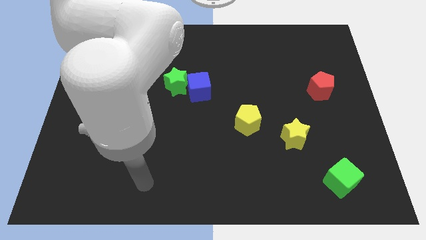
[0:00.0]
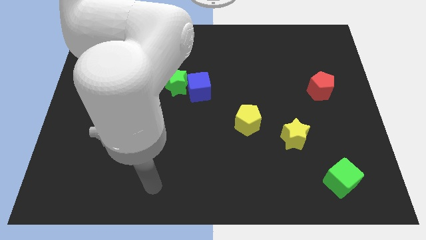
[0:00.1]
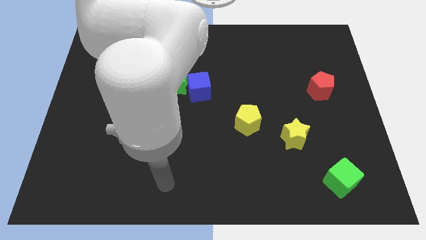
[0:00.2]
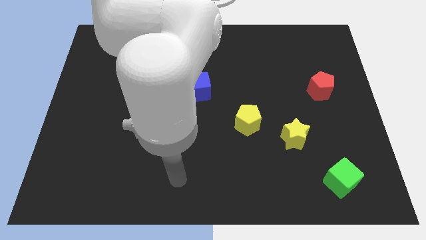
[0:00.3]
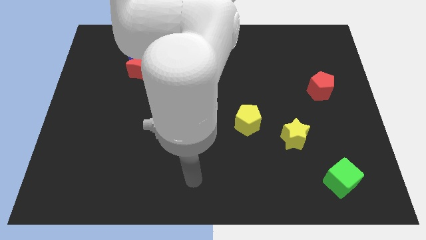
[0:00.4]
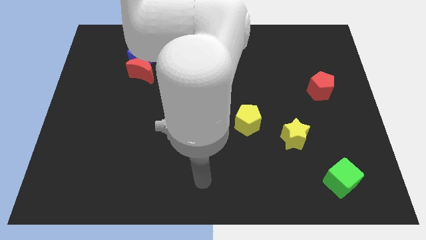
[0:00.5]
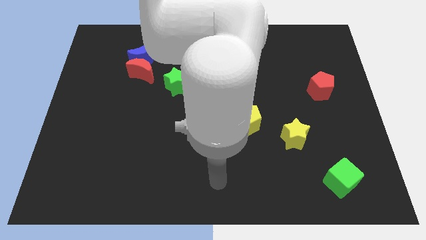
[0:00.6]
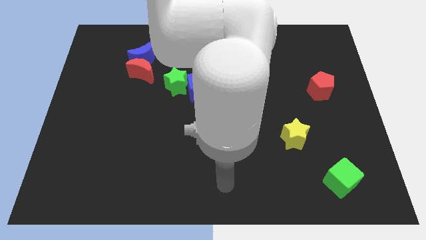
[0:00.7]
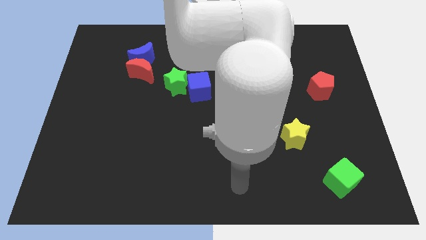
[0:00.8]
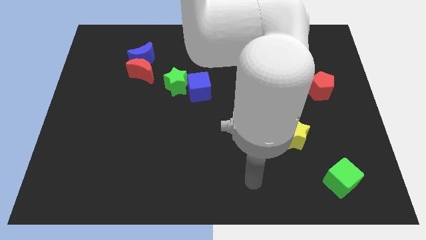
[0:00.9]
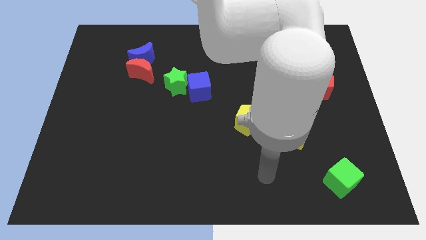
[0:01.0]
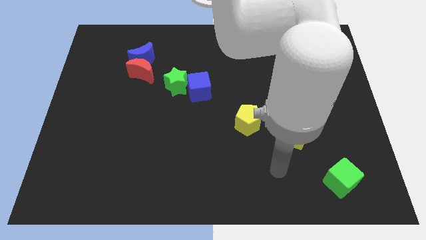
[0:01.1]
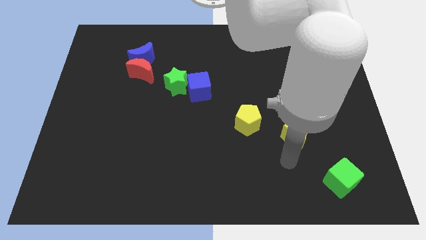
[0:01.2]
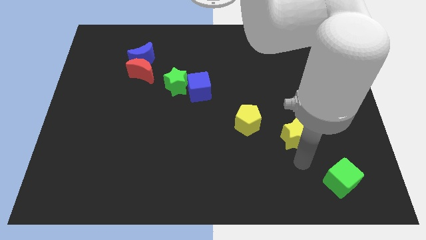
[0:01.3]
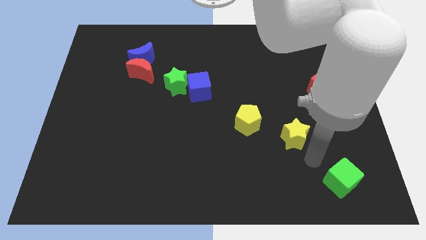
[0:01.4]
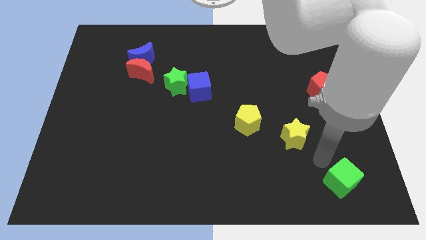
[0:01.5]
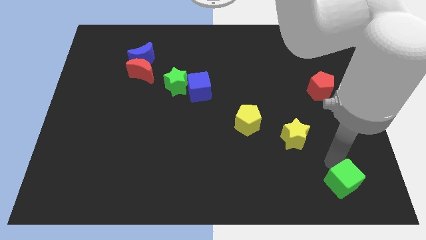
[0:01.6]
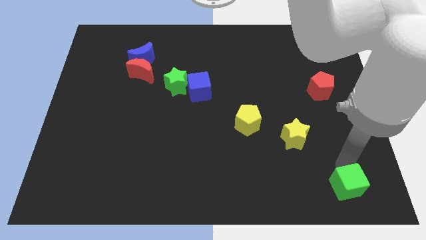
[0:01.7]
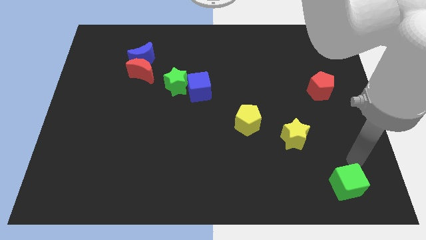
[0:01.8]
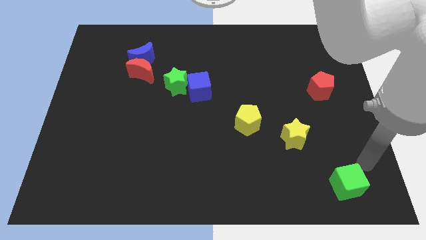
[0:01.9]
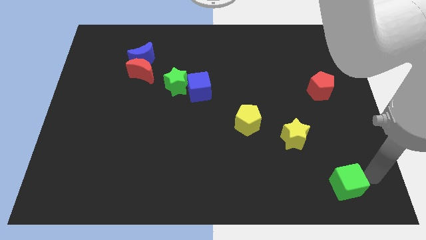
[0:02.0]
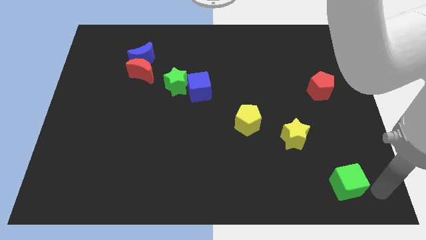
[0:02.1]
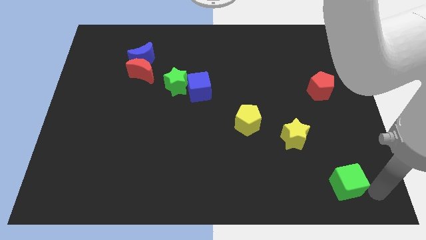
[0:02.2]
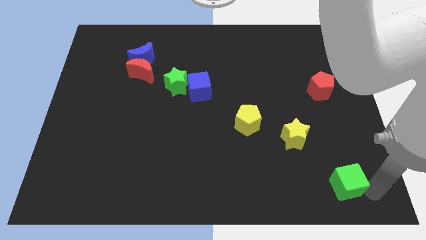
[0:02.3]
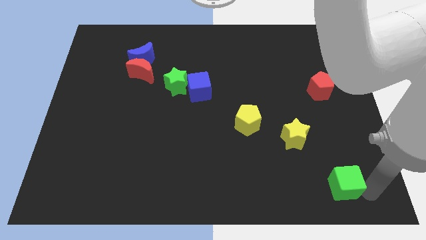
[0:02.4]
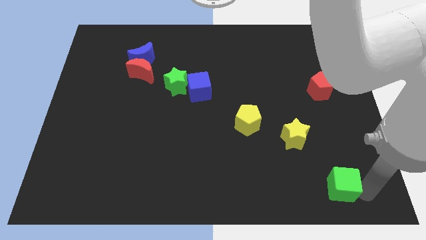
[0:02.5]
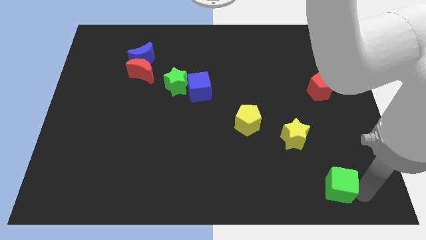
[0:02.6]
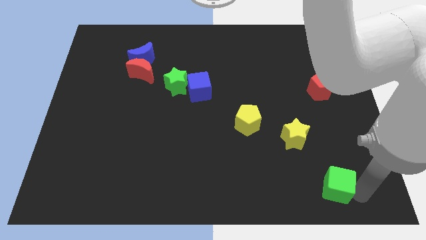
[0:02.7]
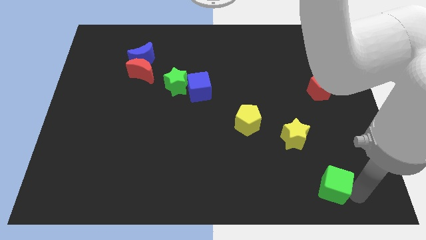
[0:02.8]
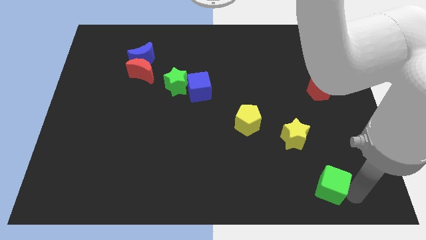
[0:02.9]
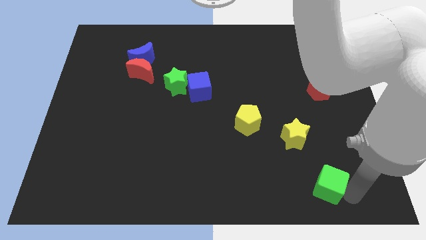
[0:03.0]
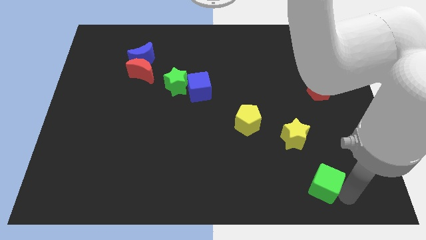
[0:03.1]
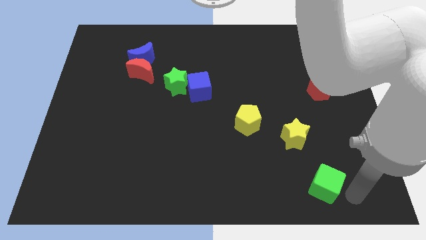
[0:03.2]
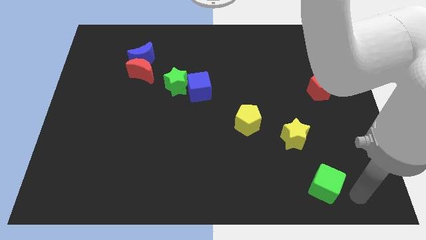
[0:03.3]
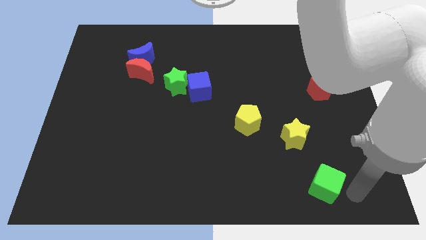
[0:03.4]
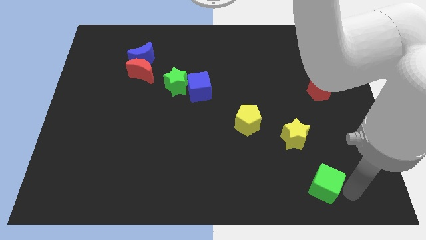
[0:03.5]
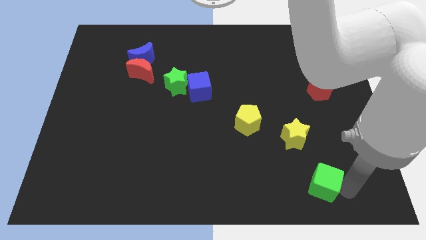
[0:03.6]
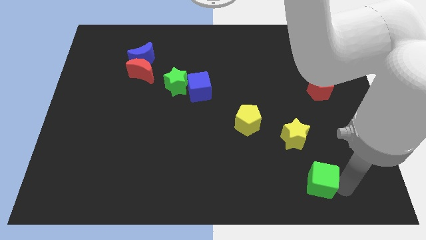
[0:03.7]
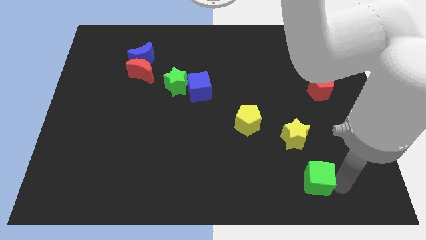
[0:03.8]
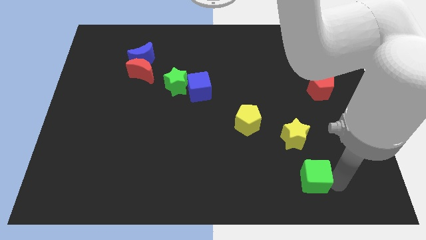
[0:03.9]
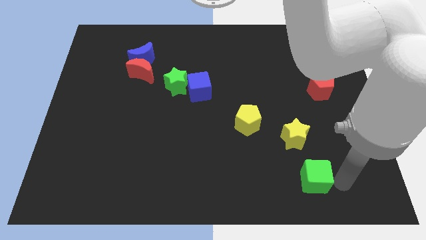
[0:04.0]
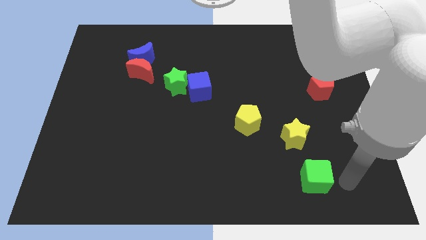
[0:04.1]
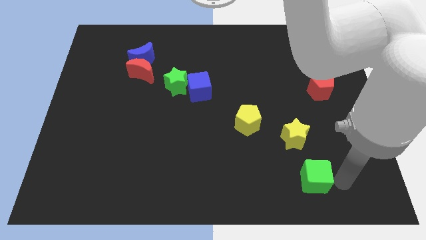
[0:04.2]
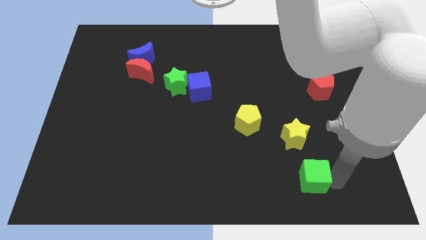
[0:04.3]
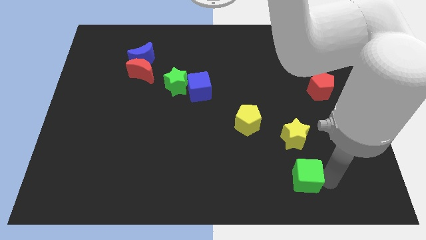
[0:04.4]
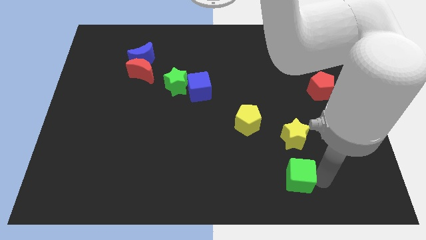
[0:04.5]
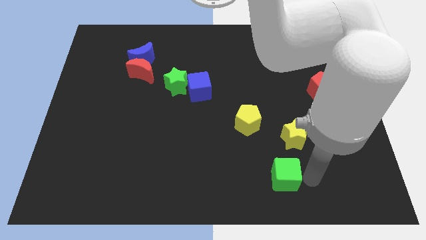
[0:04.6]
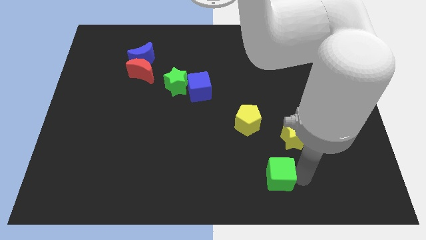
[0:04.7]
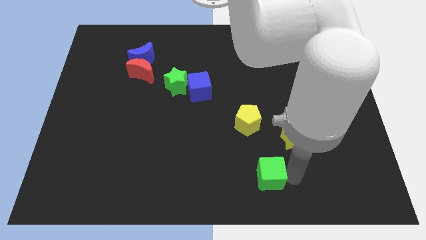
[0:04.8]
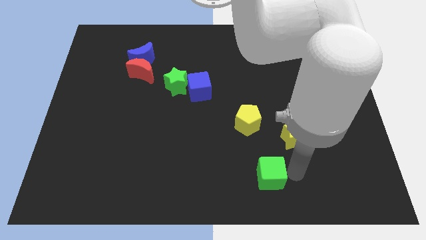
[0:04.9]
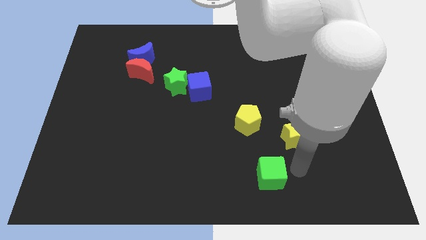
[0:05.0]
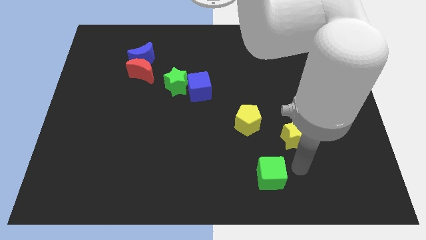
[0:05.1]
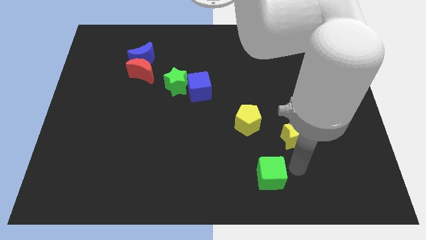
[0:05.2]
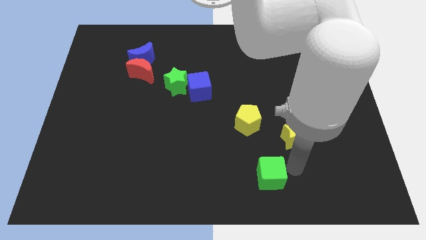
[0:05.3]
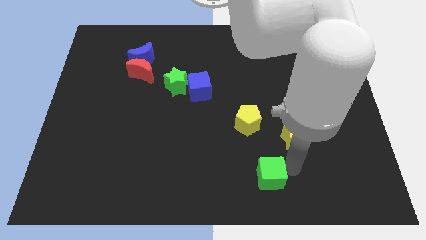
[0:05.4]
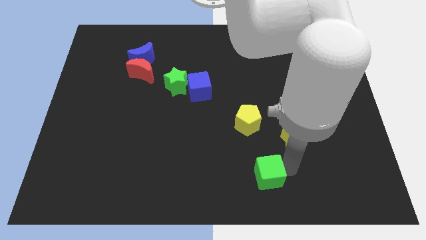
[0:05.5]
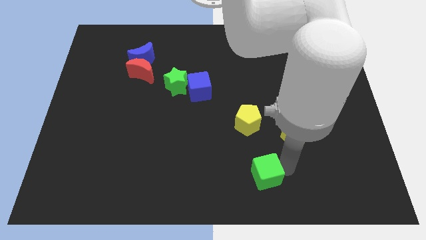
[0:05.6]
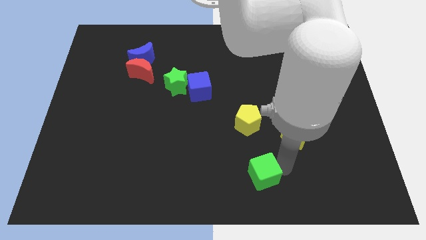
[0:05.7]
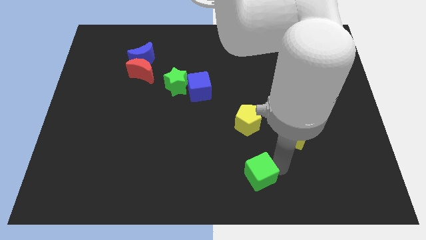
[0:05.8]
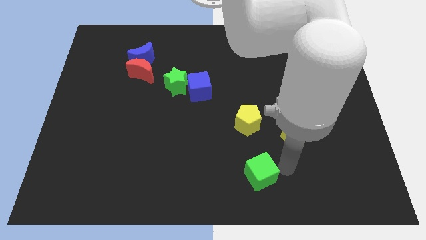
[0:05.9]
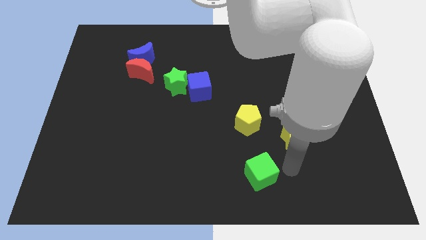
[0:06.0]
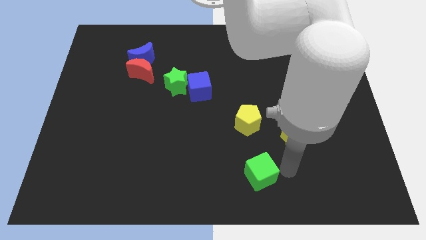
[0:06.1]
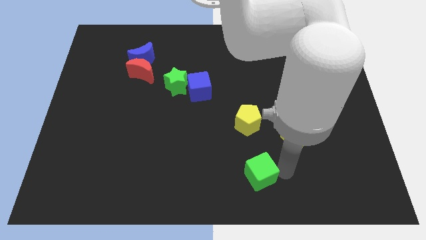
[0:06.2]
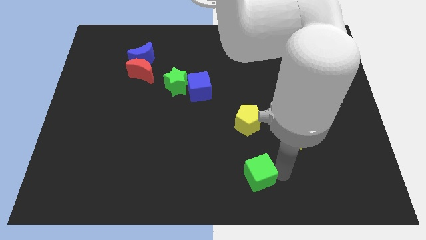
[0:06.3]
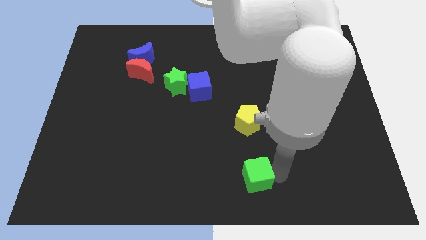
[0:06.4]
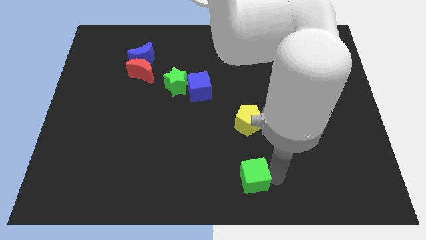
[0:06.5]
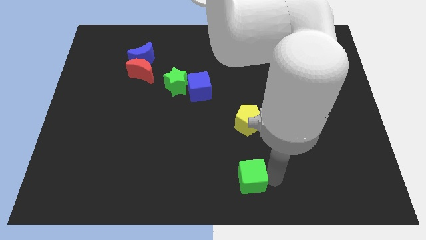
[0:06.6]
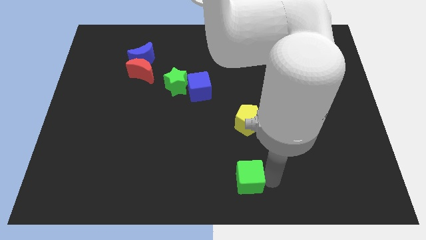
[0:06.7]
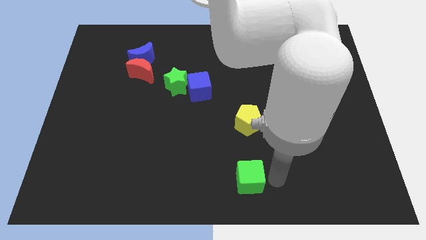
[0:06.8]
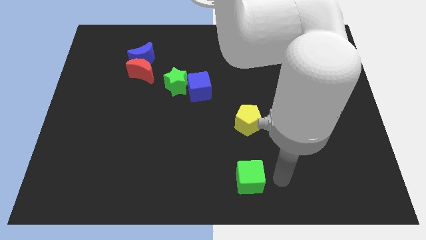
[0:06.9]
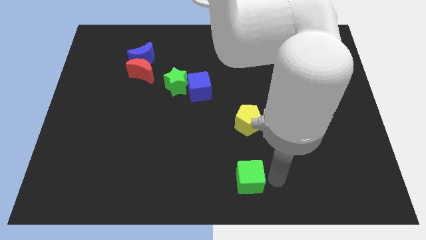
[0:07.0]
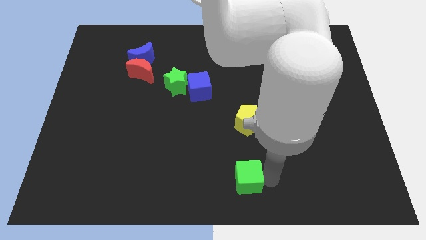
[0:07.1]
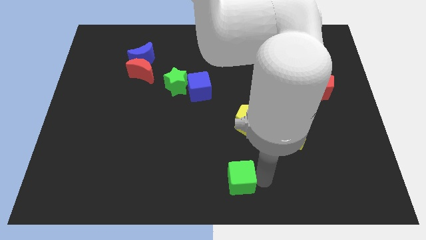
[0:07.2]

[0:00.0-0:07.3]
move the green cube left
